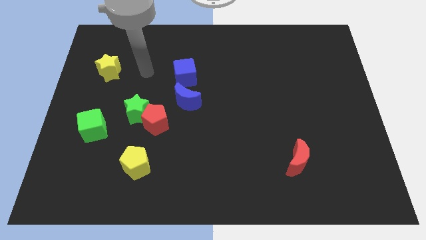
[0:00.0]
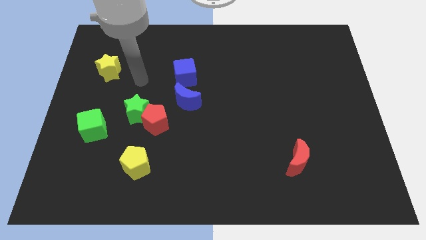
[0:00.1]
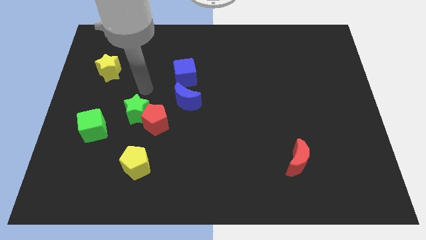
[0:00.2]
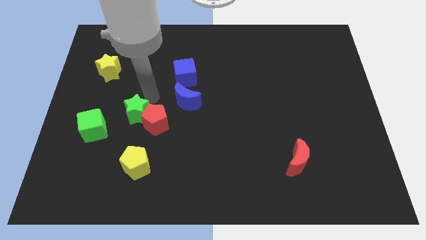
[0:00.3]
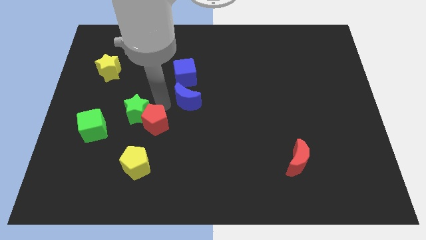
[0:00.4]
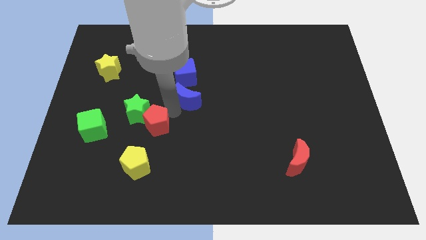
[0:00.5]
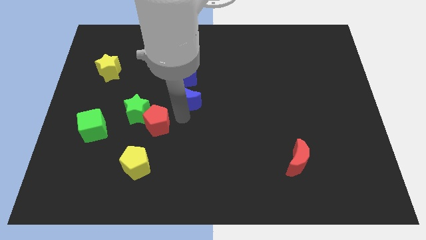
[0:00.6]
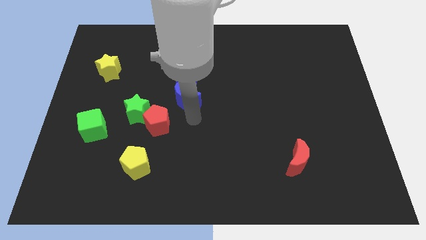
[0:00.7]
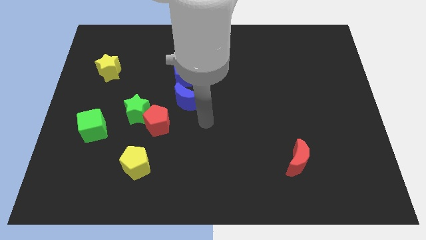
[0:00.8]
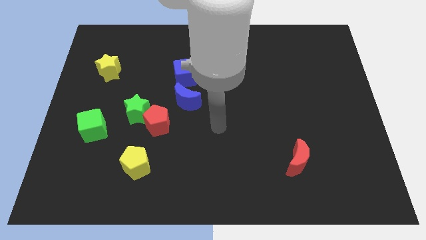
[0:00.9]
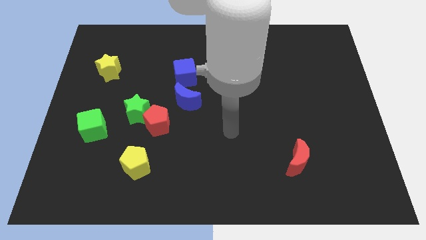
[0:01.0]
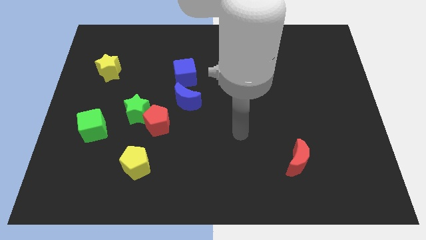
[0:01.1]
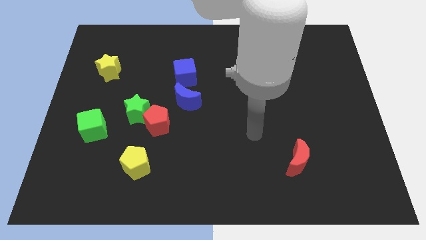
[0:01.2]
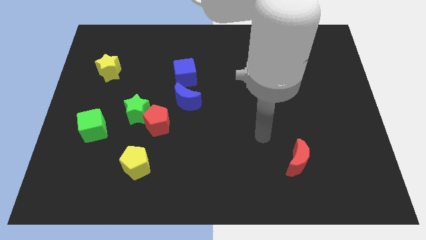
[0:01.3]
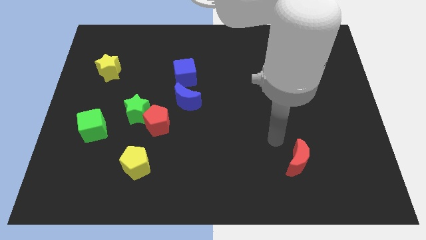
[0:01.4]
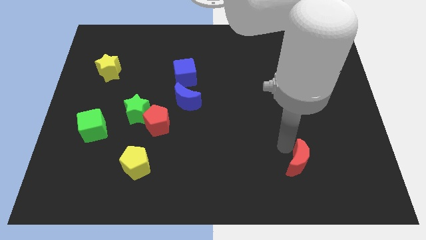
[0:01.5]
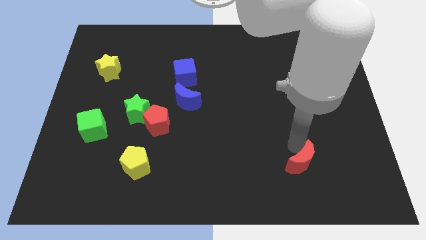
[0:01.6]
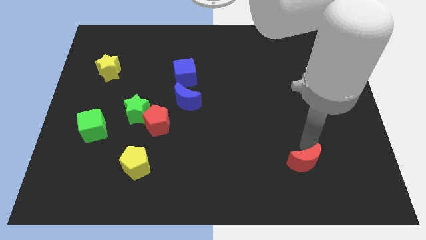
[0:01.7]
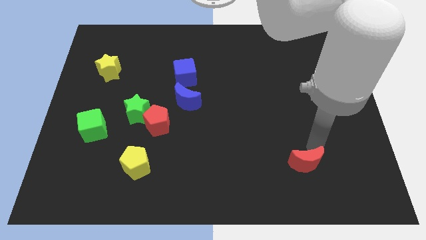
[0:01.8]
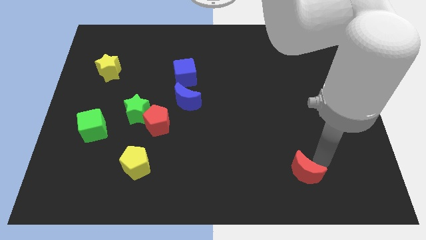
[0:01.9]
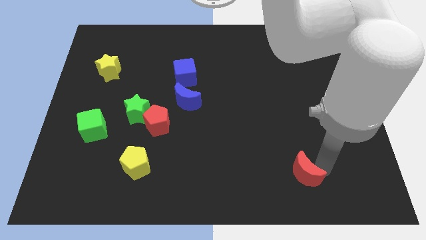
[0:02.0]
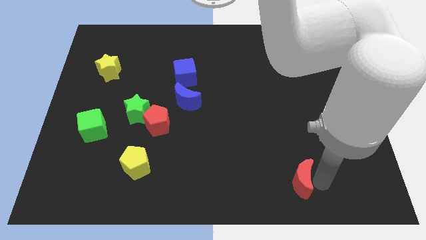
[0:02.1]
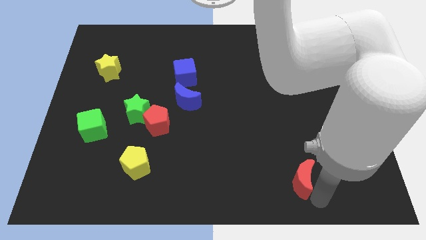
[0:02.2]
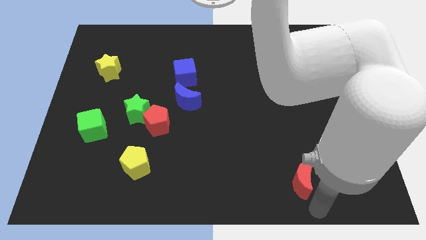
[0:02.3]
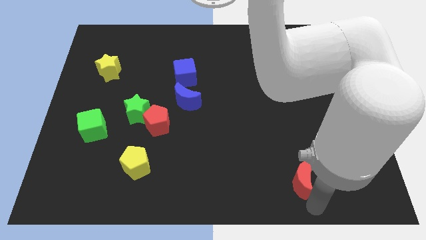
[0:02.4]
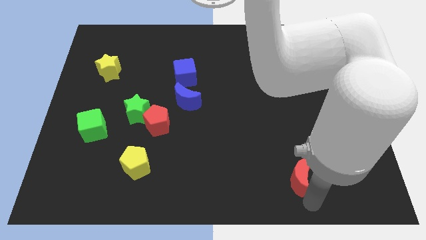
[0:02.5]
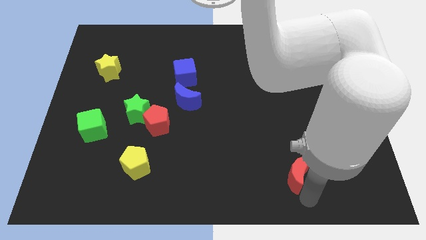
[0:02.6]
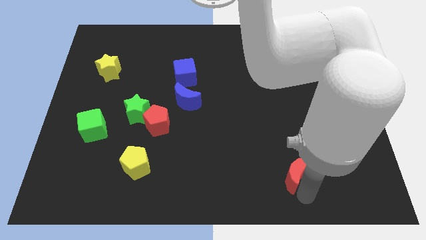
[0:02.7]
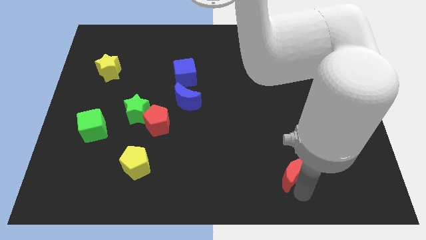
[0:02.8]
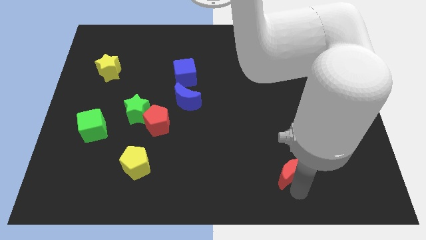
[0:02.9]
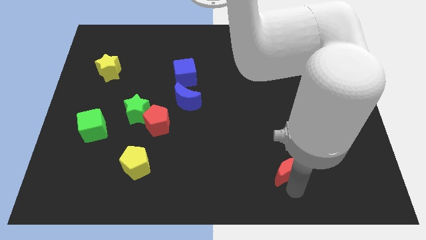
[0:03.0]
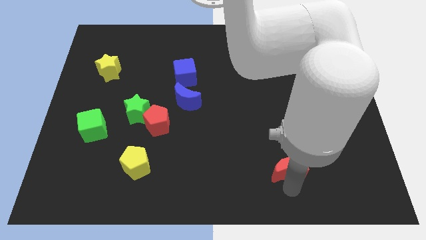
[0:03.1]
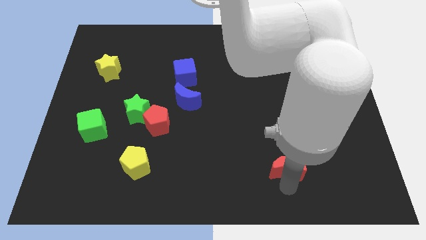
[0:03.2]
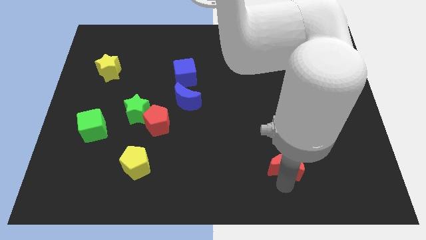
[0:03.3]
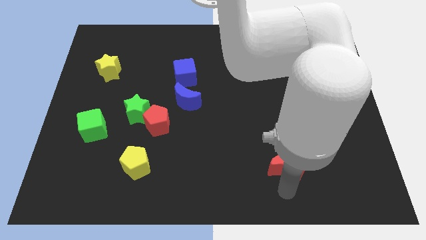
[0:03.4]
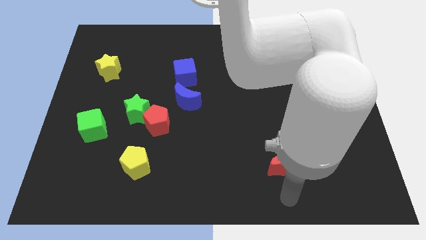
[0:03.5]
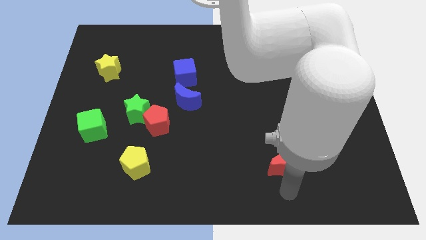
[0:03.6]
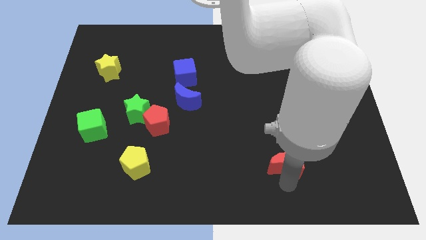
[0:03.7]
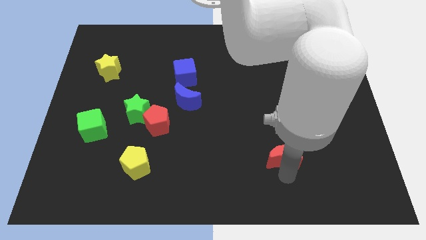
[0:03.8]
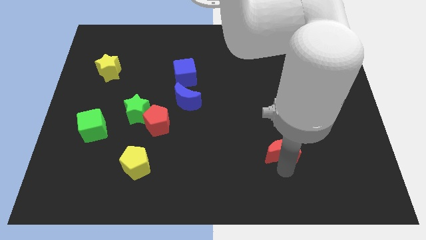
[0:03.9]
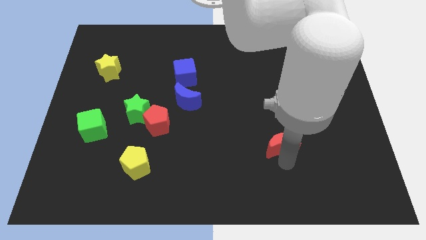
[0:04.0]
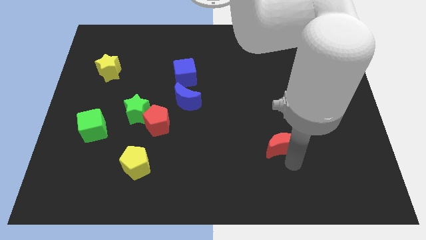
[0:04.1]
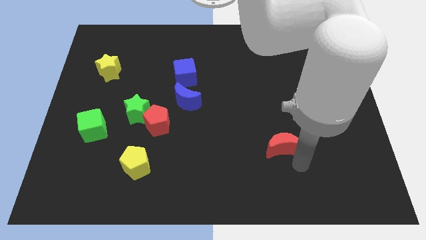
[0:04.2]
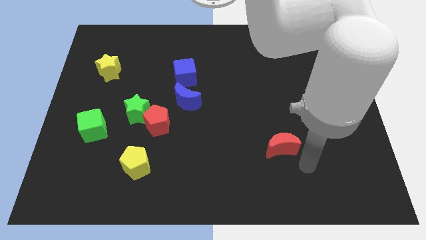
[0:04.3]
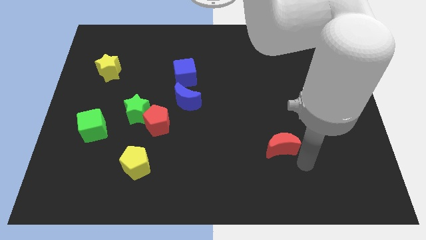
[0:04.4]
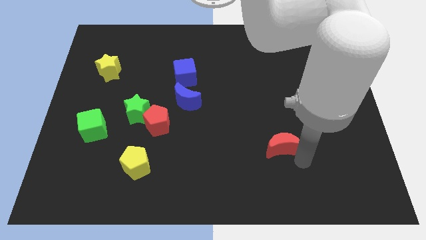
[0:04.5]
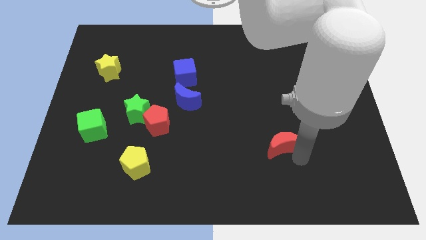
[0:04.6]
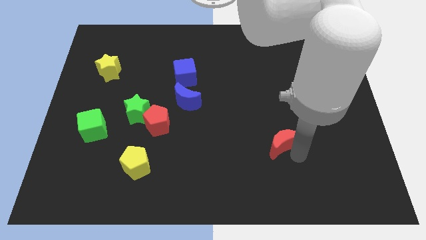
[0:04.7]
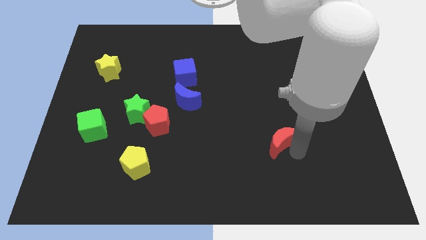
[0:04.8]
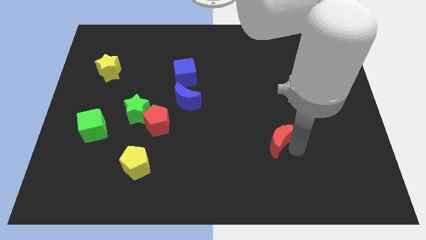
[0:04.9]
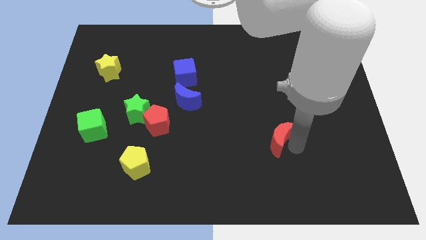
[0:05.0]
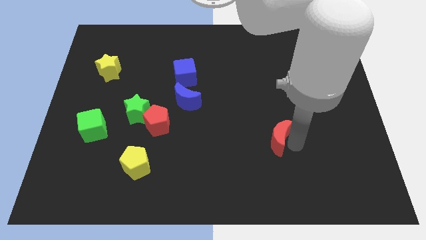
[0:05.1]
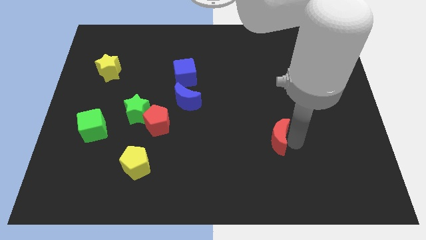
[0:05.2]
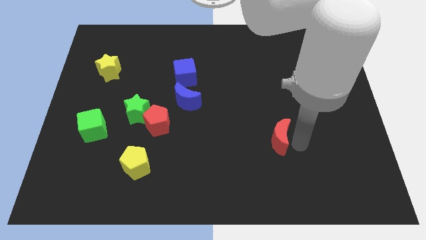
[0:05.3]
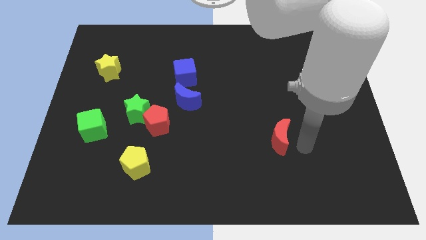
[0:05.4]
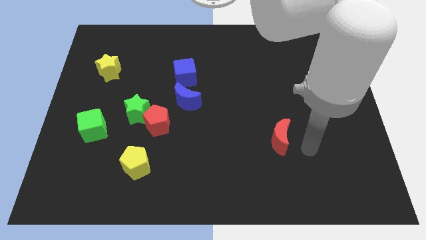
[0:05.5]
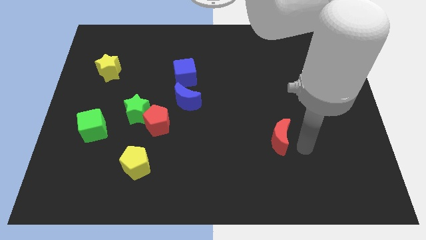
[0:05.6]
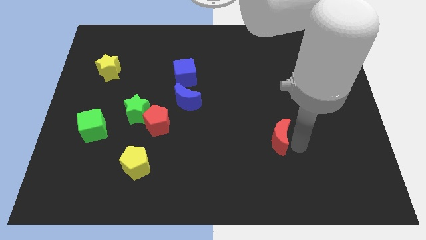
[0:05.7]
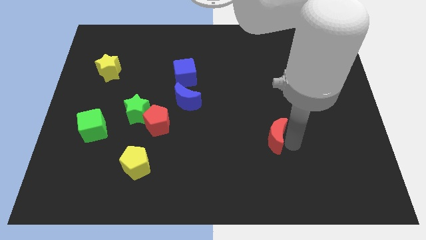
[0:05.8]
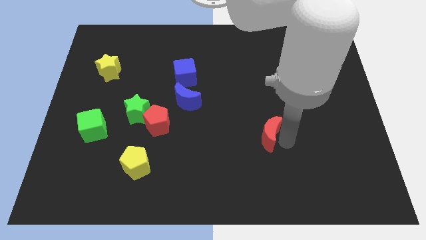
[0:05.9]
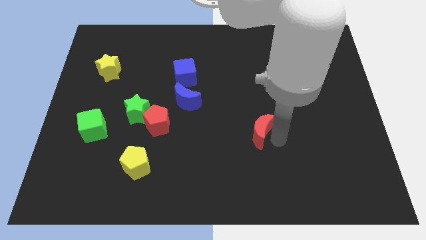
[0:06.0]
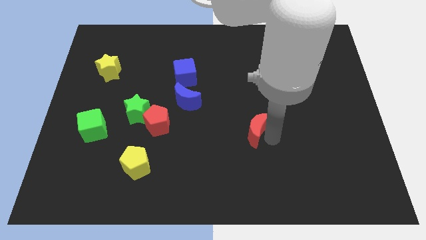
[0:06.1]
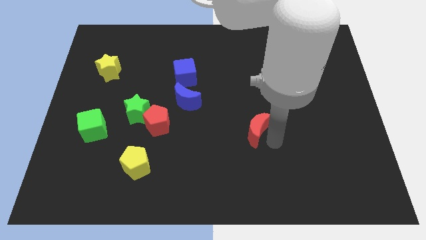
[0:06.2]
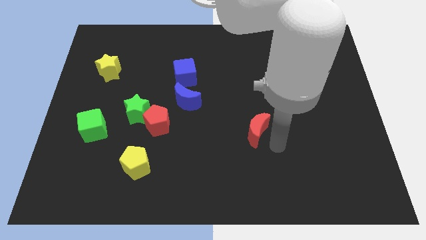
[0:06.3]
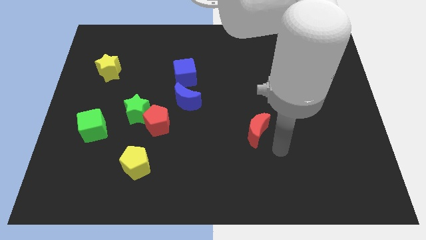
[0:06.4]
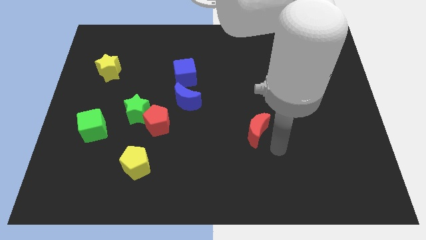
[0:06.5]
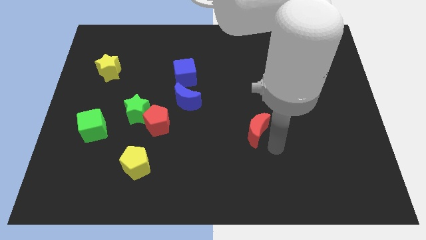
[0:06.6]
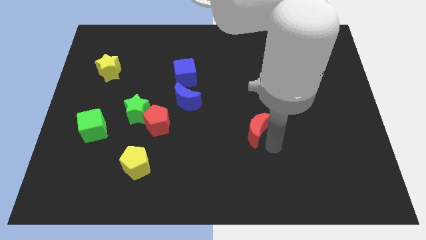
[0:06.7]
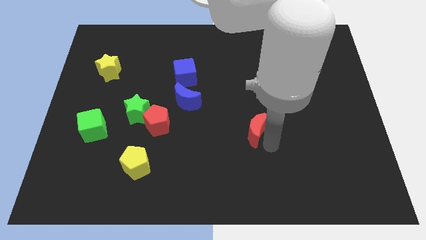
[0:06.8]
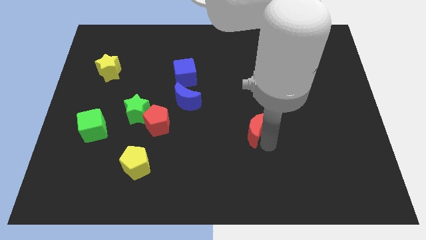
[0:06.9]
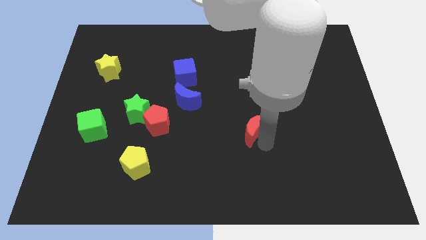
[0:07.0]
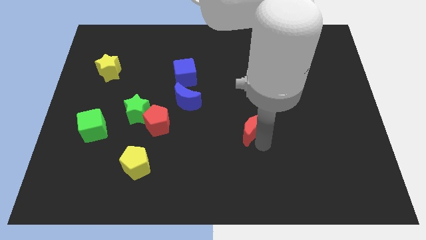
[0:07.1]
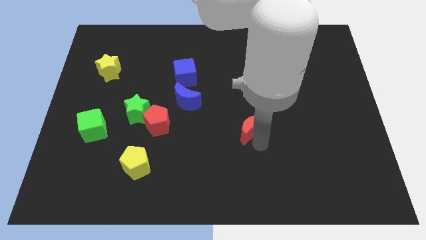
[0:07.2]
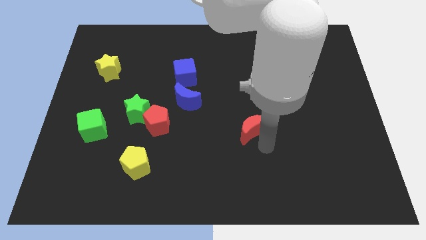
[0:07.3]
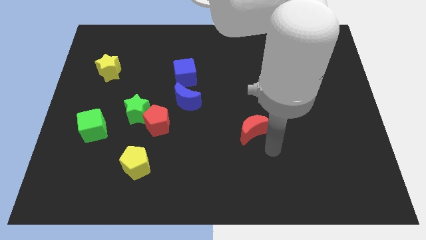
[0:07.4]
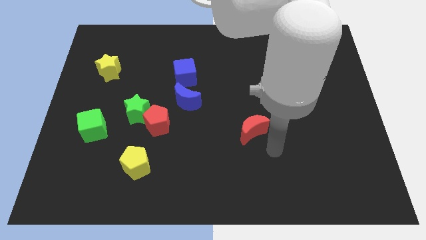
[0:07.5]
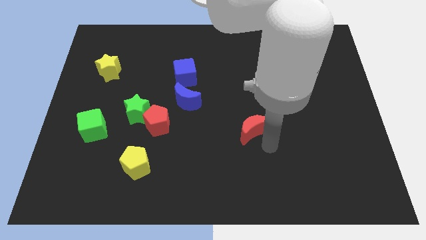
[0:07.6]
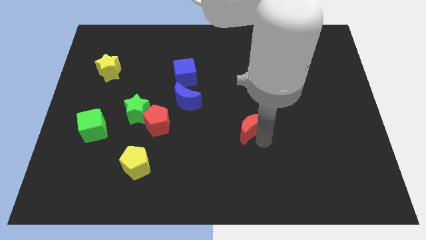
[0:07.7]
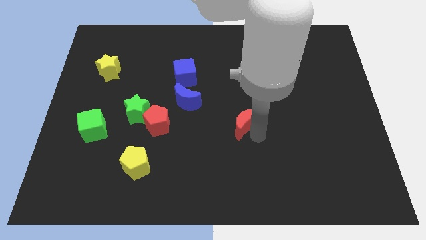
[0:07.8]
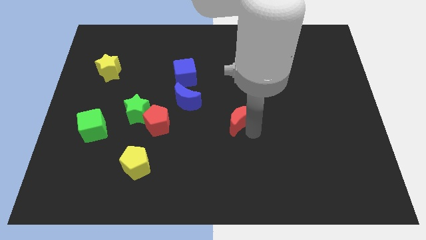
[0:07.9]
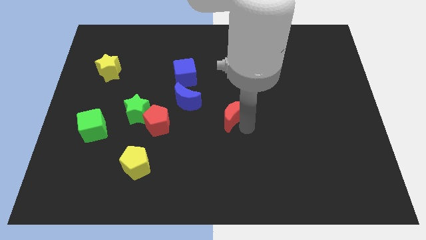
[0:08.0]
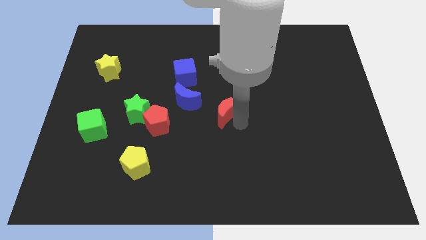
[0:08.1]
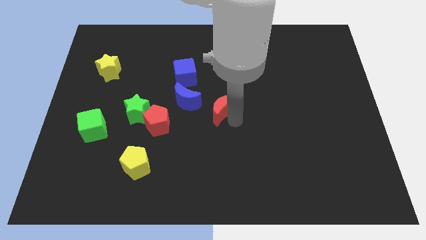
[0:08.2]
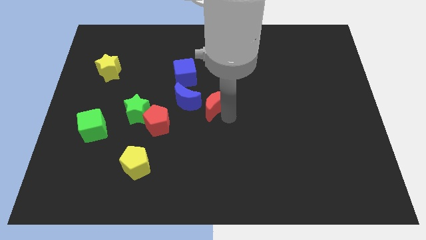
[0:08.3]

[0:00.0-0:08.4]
push the red moon to the bottom right side of the blue cube
